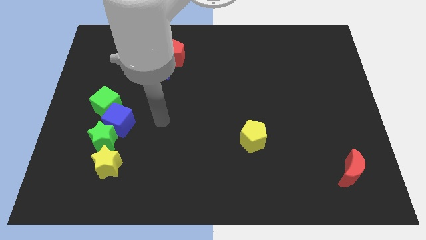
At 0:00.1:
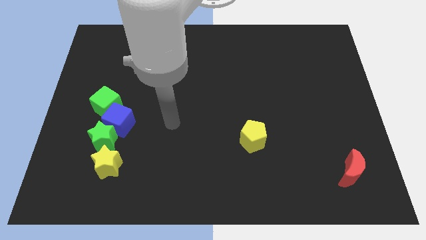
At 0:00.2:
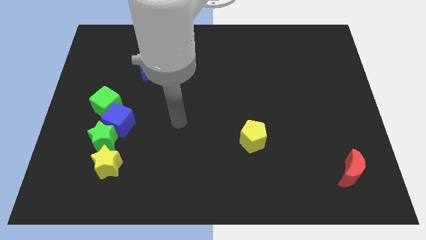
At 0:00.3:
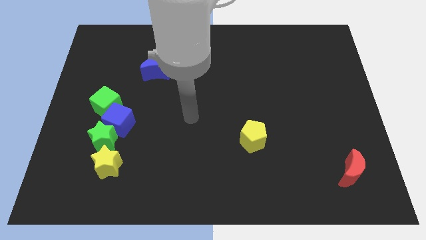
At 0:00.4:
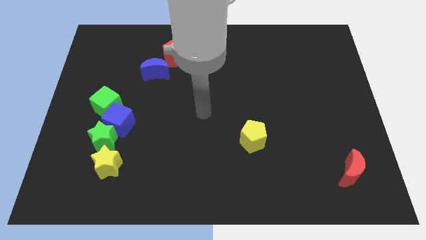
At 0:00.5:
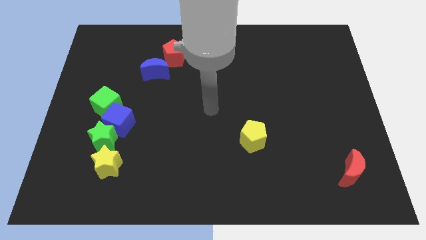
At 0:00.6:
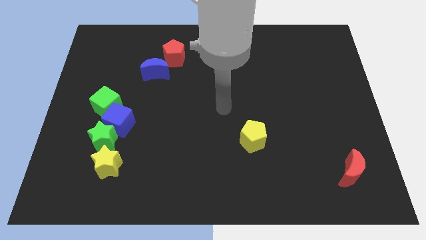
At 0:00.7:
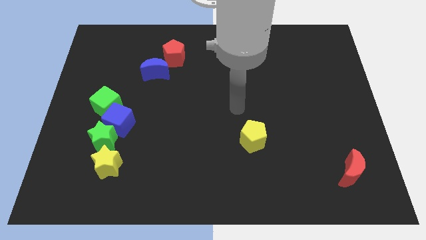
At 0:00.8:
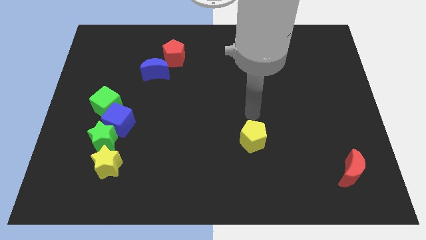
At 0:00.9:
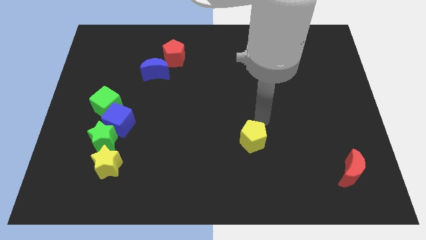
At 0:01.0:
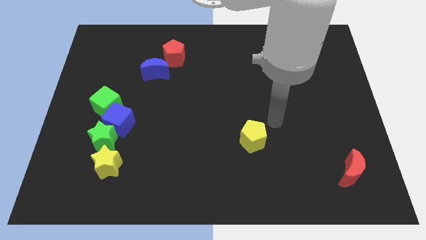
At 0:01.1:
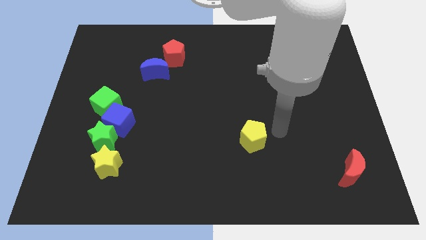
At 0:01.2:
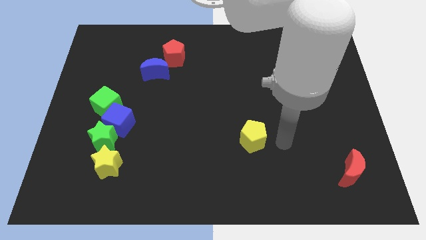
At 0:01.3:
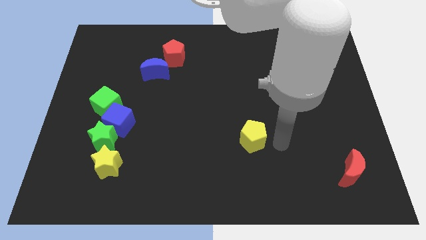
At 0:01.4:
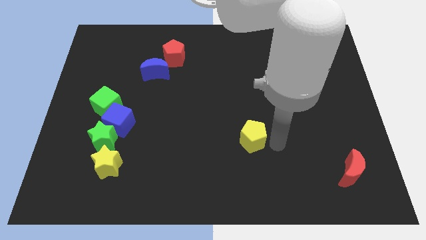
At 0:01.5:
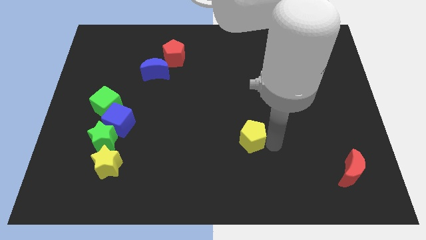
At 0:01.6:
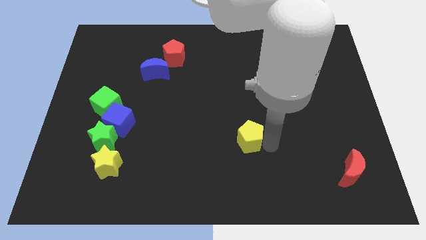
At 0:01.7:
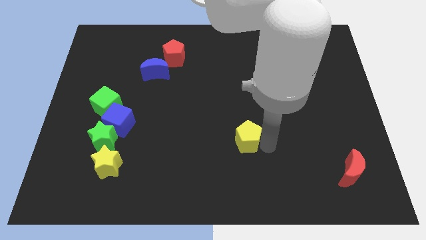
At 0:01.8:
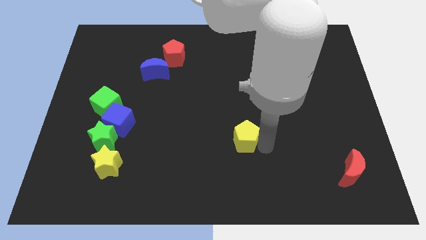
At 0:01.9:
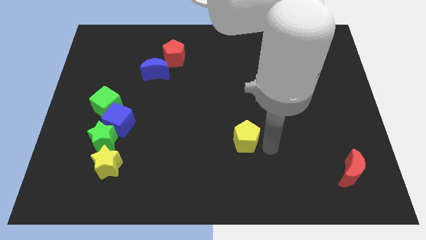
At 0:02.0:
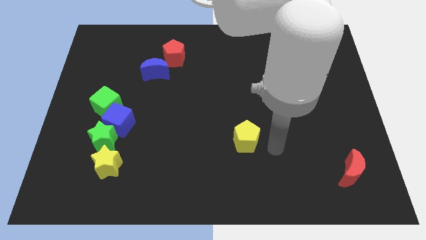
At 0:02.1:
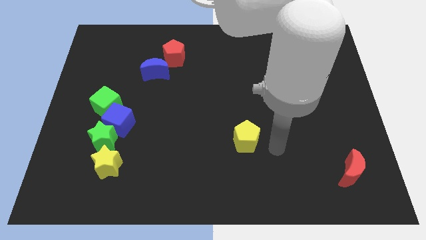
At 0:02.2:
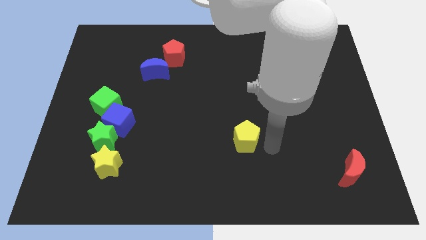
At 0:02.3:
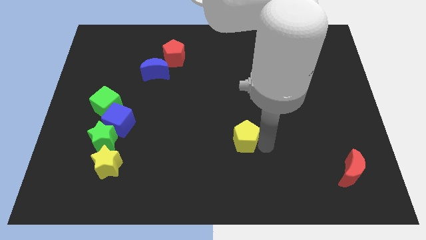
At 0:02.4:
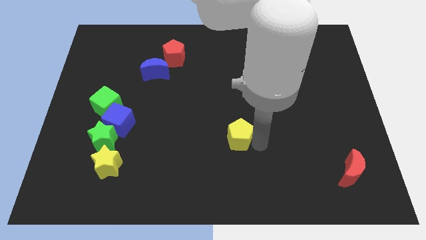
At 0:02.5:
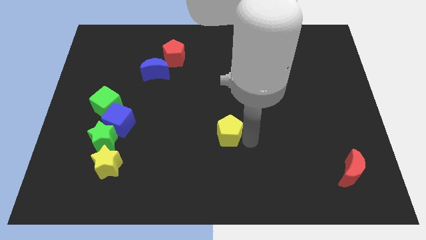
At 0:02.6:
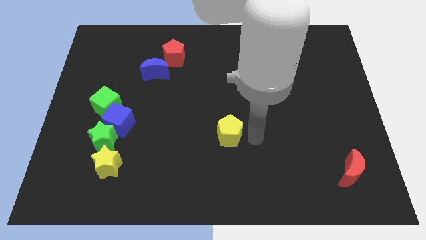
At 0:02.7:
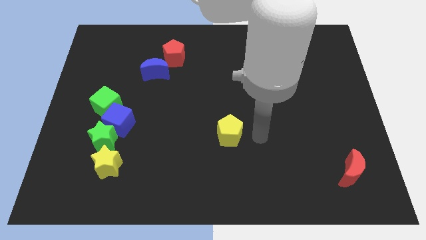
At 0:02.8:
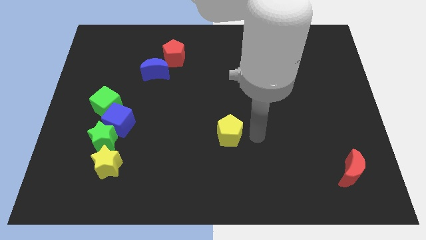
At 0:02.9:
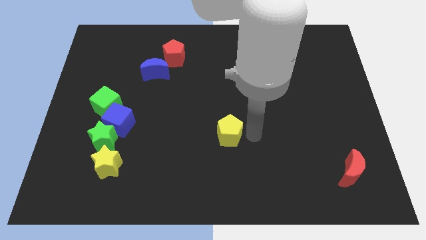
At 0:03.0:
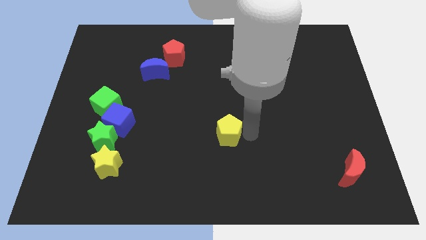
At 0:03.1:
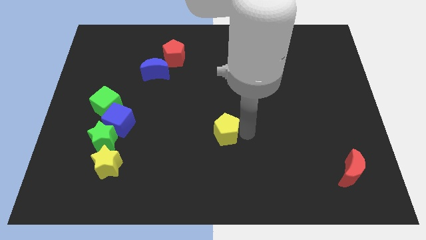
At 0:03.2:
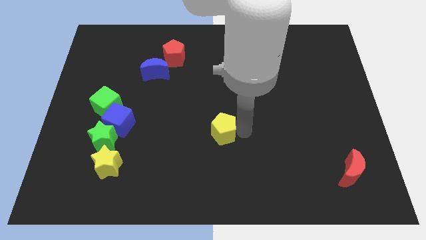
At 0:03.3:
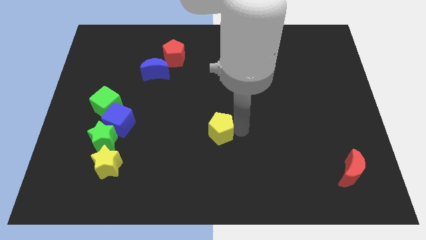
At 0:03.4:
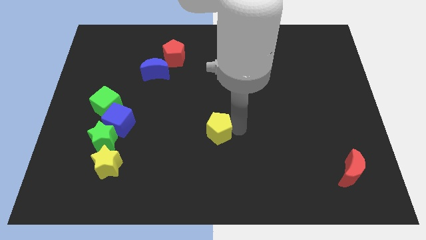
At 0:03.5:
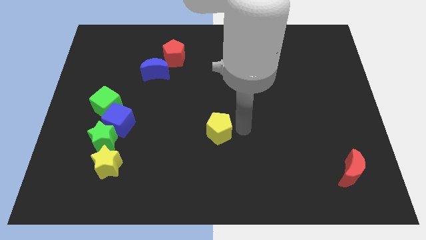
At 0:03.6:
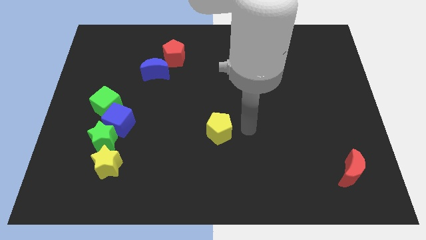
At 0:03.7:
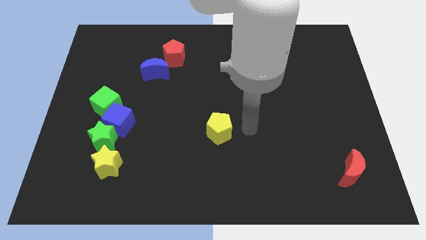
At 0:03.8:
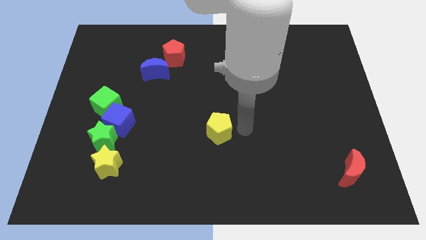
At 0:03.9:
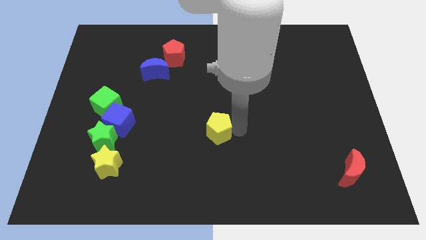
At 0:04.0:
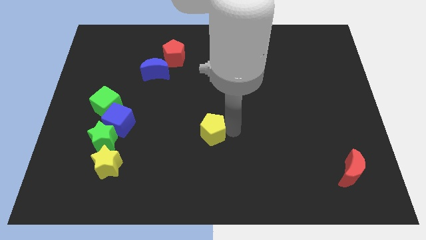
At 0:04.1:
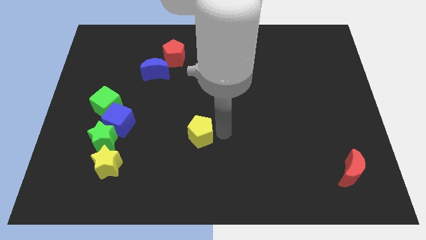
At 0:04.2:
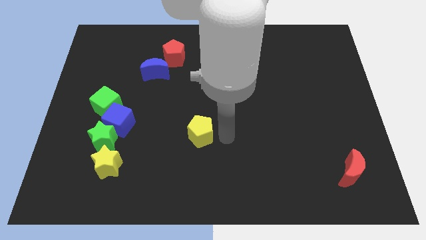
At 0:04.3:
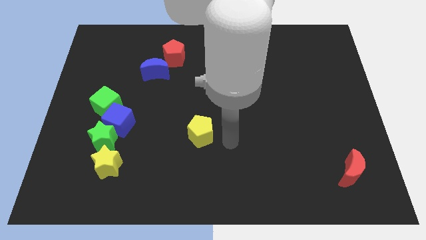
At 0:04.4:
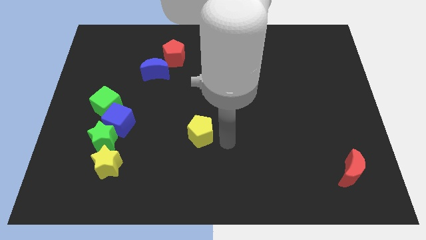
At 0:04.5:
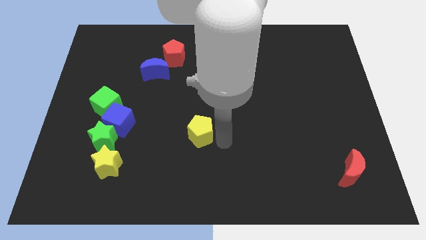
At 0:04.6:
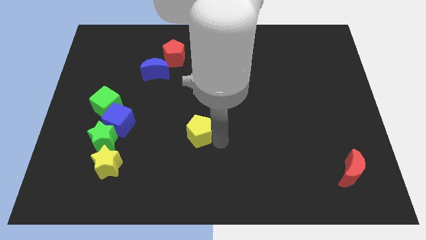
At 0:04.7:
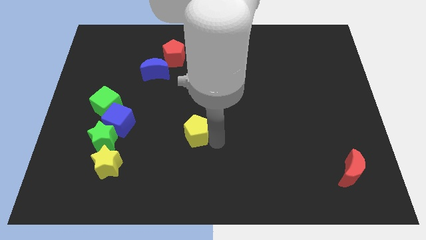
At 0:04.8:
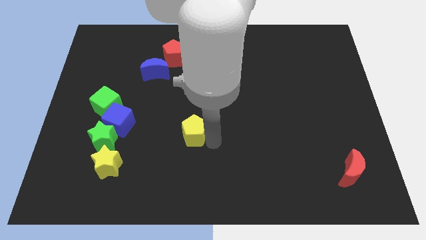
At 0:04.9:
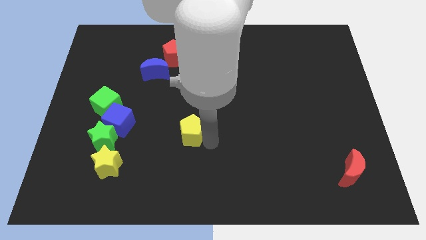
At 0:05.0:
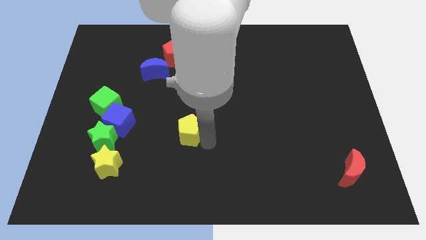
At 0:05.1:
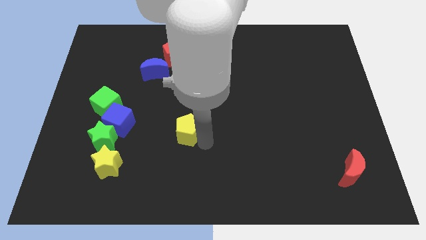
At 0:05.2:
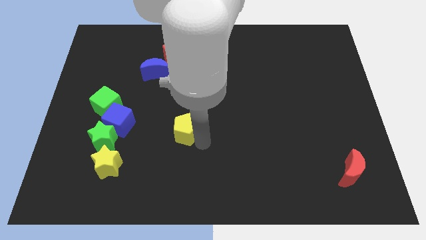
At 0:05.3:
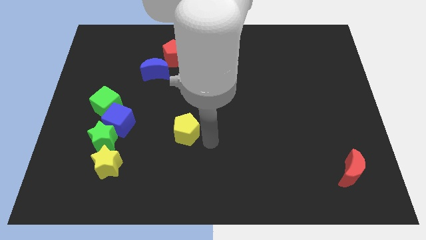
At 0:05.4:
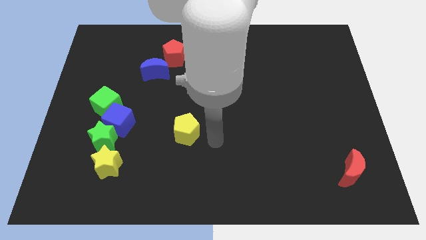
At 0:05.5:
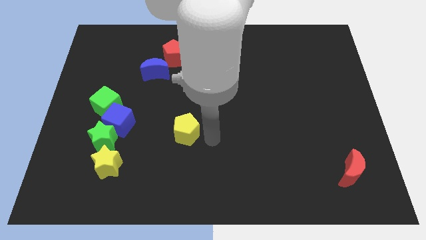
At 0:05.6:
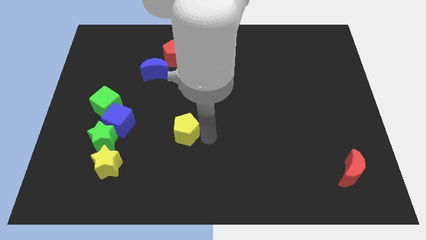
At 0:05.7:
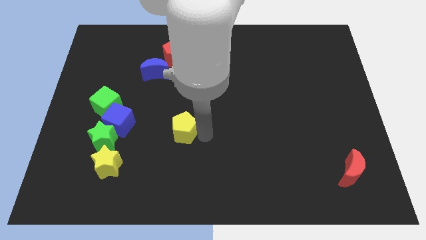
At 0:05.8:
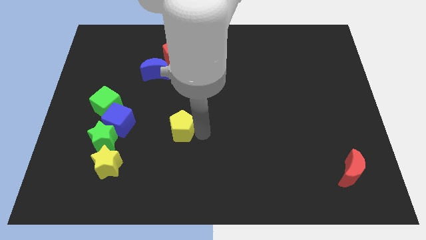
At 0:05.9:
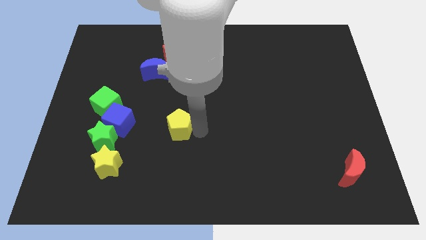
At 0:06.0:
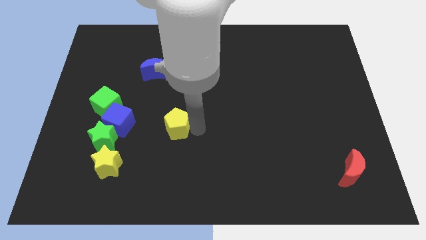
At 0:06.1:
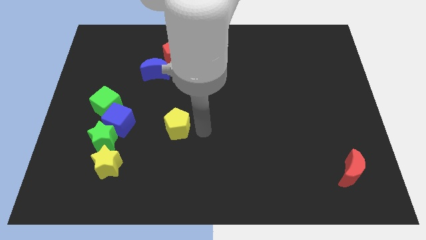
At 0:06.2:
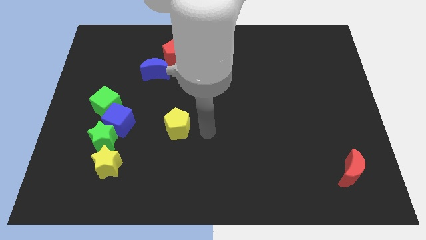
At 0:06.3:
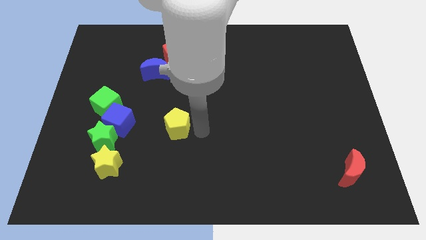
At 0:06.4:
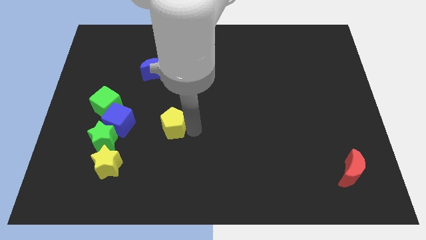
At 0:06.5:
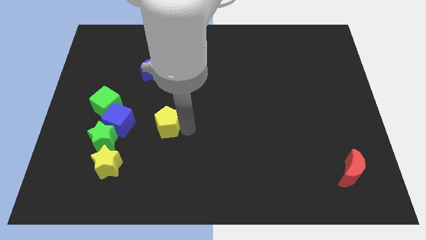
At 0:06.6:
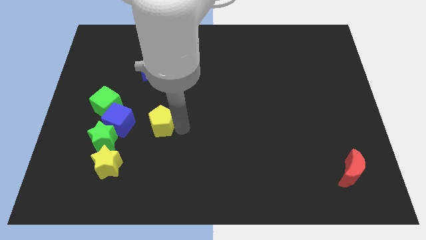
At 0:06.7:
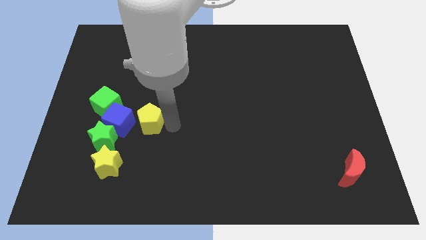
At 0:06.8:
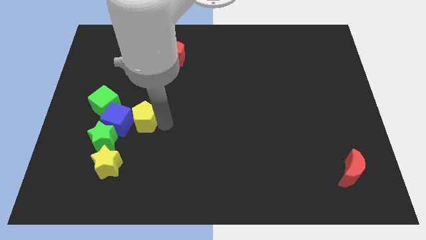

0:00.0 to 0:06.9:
push the yellow pentagon towards the blue cube
